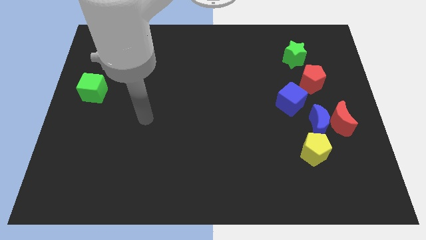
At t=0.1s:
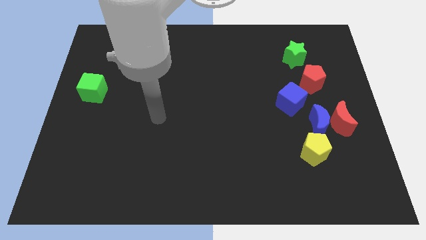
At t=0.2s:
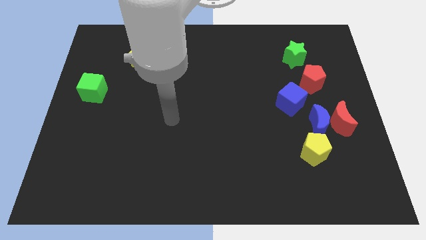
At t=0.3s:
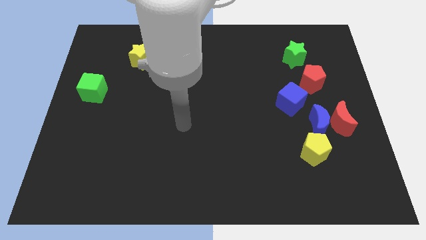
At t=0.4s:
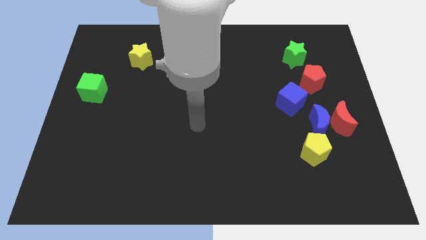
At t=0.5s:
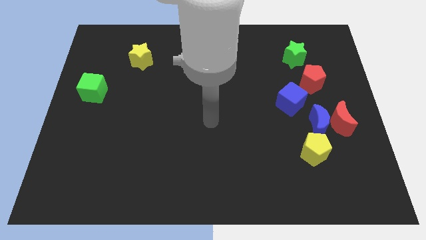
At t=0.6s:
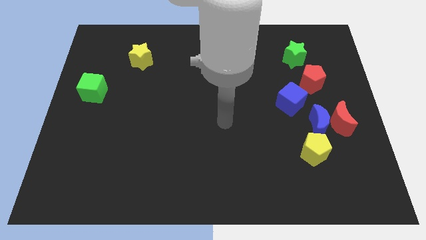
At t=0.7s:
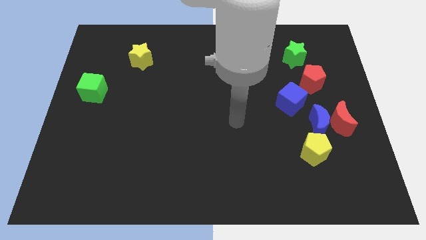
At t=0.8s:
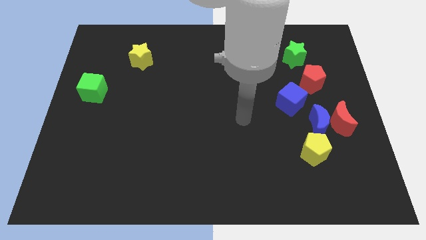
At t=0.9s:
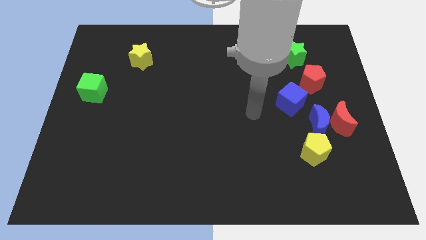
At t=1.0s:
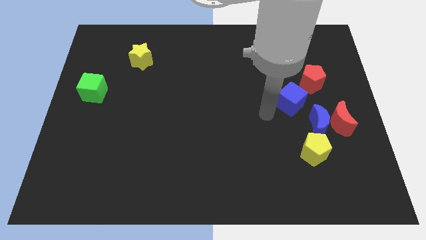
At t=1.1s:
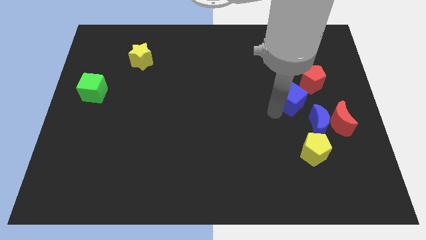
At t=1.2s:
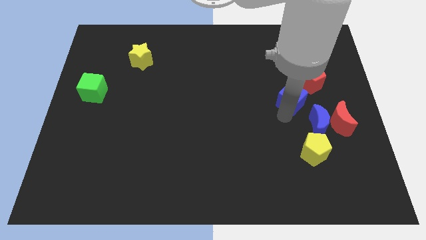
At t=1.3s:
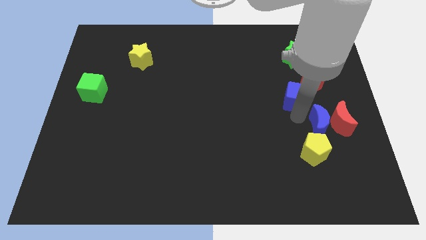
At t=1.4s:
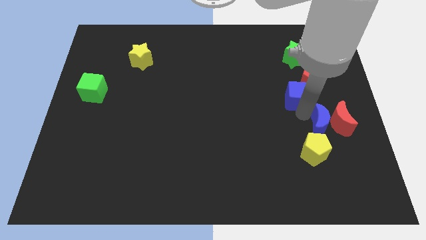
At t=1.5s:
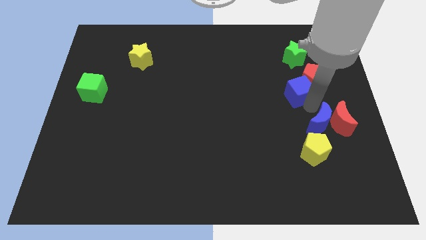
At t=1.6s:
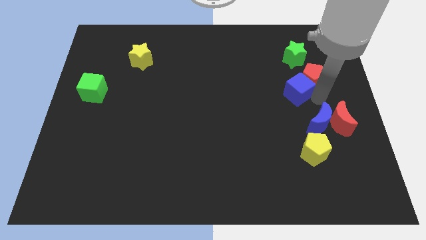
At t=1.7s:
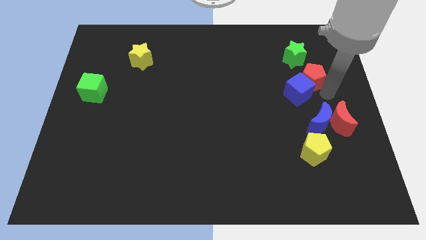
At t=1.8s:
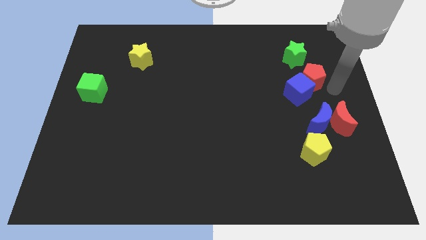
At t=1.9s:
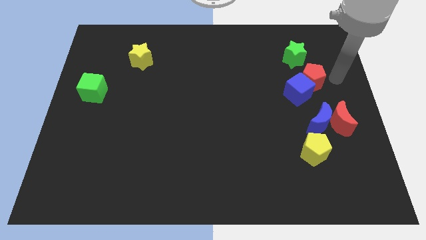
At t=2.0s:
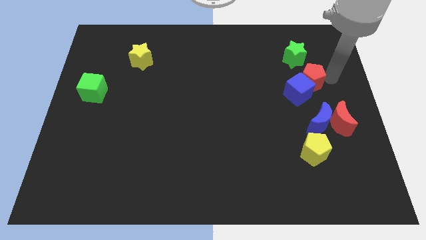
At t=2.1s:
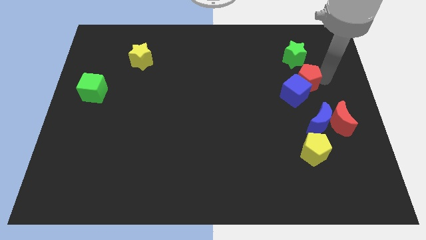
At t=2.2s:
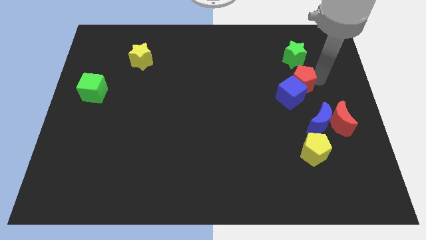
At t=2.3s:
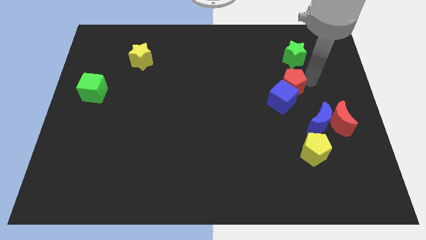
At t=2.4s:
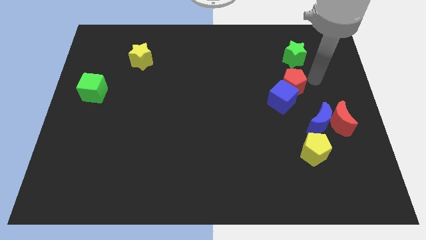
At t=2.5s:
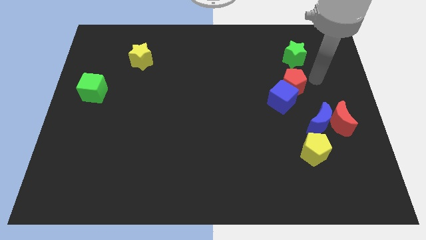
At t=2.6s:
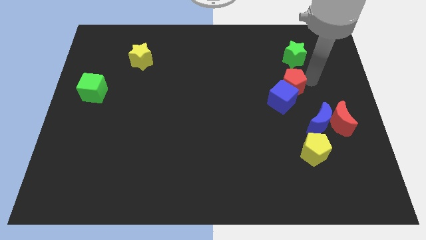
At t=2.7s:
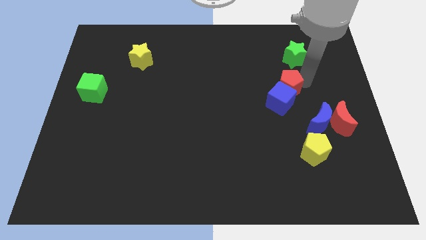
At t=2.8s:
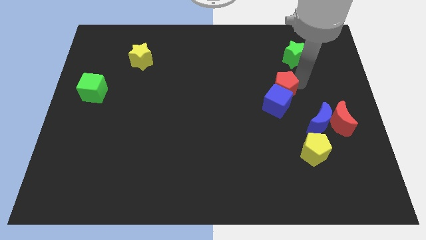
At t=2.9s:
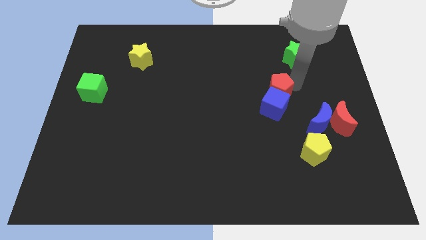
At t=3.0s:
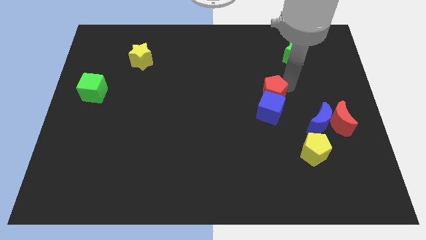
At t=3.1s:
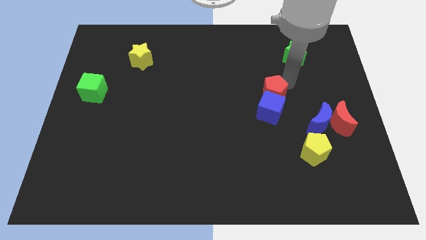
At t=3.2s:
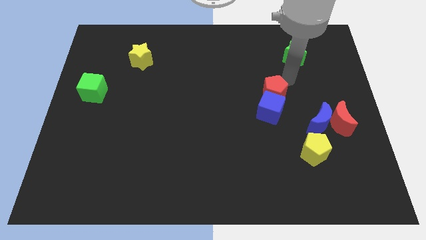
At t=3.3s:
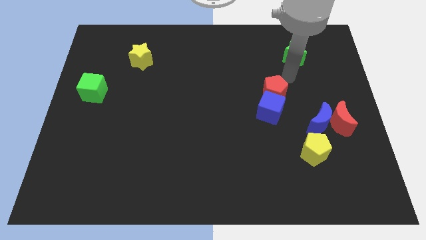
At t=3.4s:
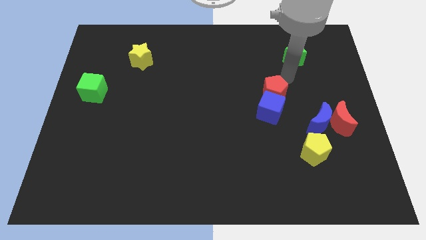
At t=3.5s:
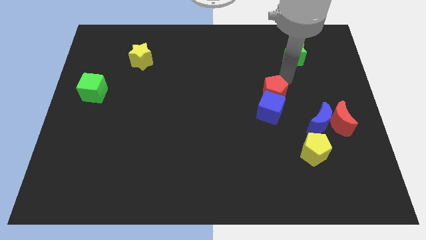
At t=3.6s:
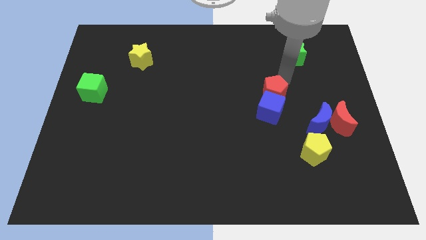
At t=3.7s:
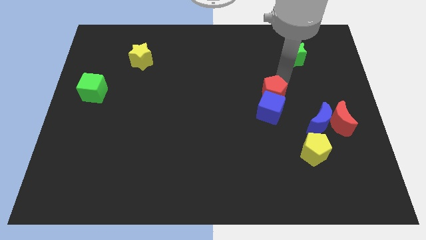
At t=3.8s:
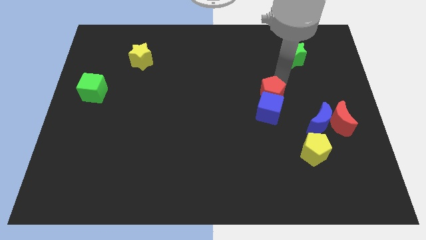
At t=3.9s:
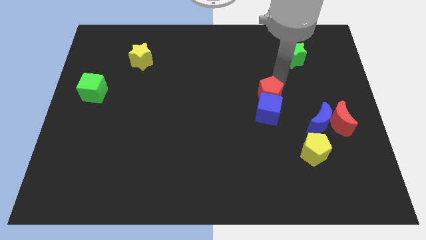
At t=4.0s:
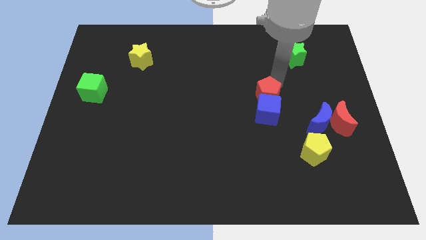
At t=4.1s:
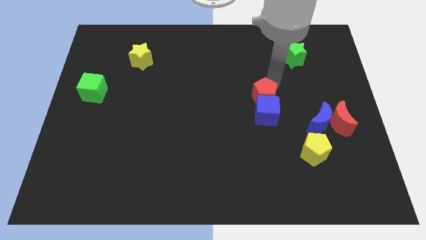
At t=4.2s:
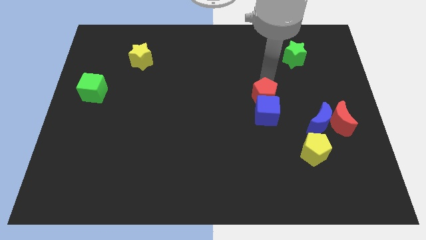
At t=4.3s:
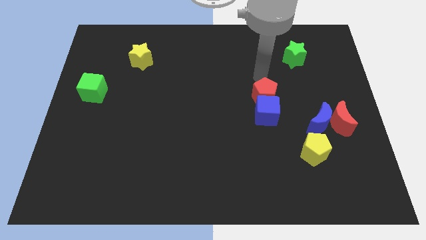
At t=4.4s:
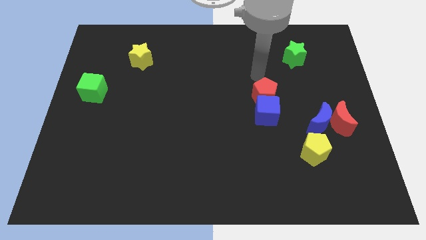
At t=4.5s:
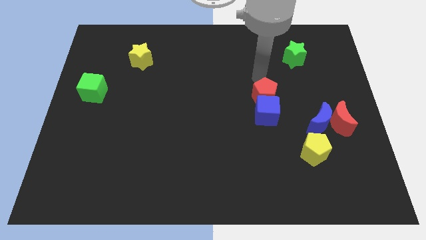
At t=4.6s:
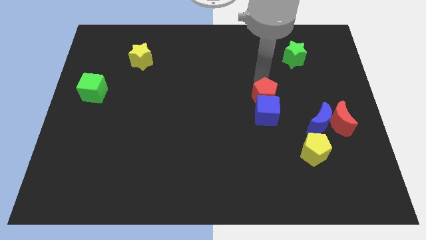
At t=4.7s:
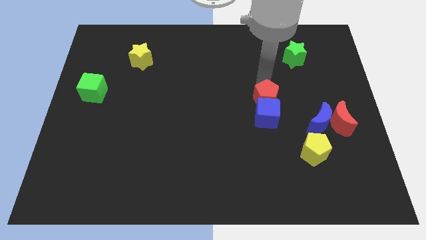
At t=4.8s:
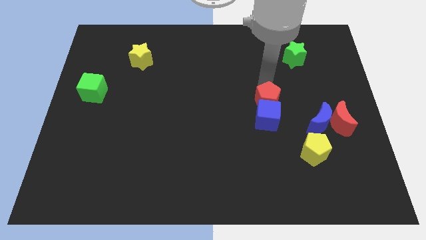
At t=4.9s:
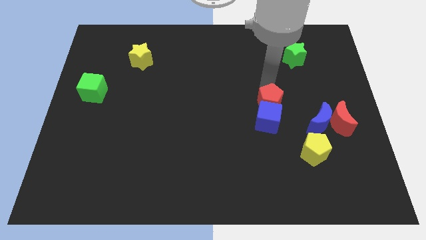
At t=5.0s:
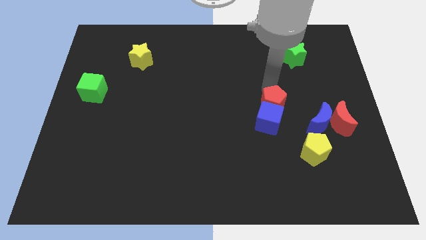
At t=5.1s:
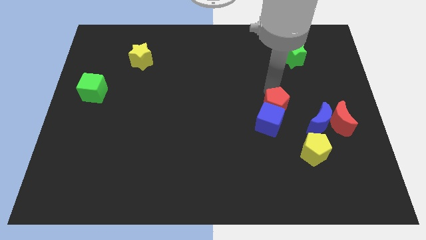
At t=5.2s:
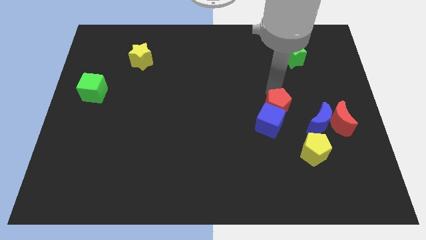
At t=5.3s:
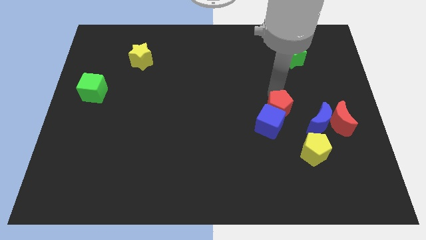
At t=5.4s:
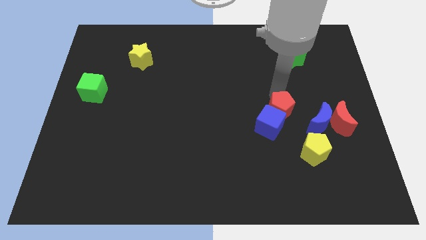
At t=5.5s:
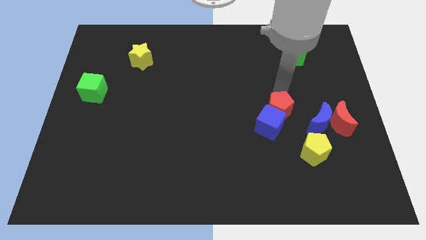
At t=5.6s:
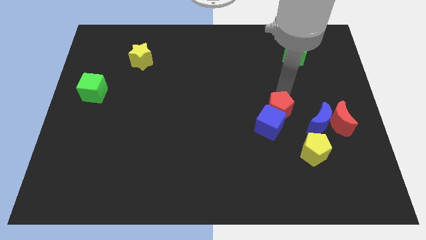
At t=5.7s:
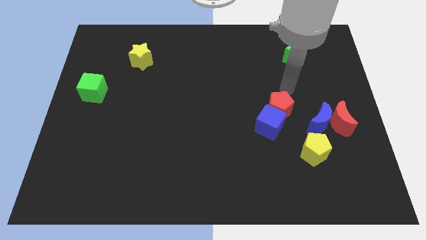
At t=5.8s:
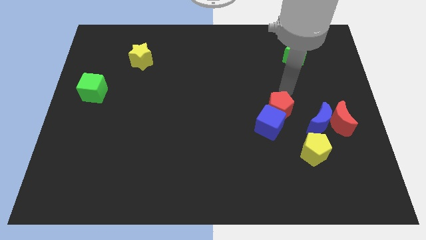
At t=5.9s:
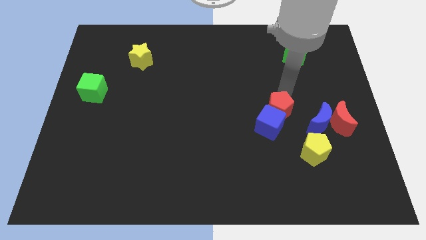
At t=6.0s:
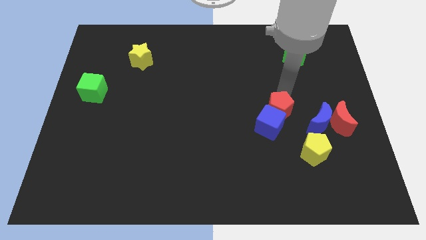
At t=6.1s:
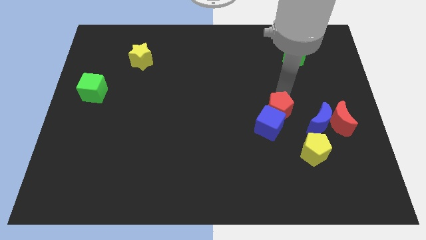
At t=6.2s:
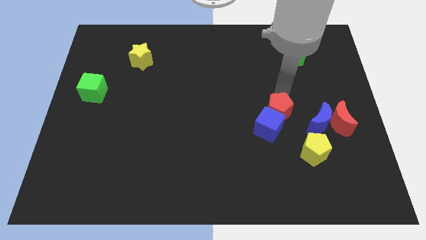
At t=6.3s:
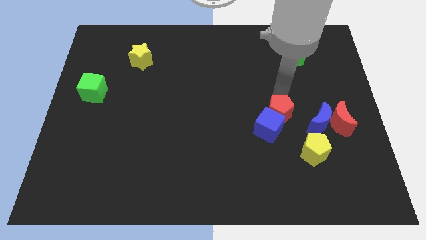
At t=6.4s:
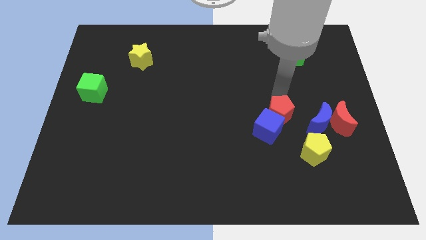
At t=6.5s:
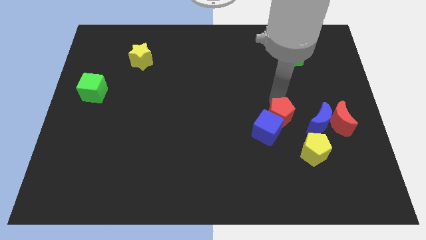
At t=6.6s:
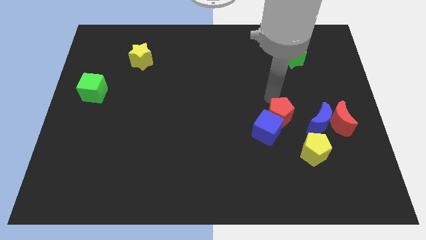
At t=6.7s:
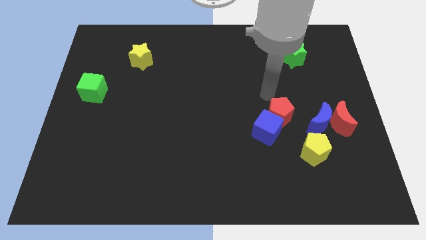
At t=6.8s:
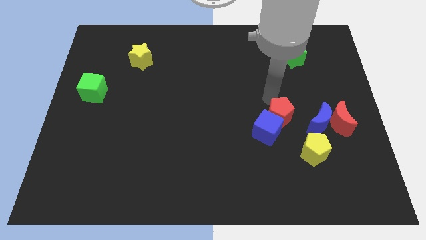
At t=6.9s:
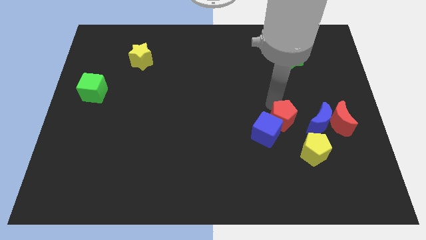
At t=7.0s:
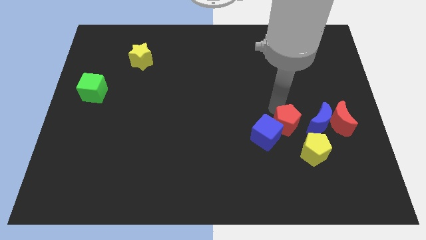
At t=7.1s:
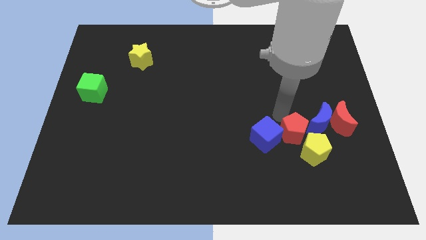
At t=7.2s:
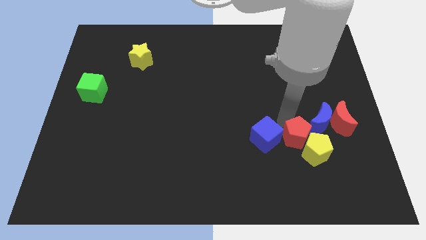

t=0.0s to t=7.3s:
push the red pentagon to the yellow pentagon
